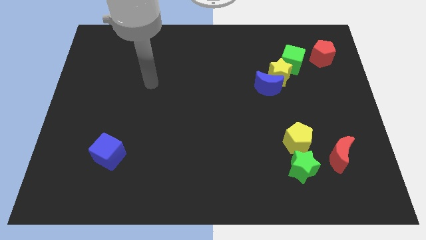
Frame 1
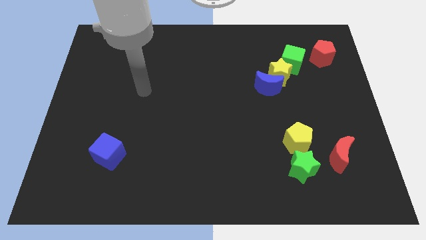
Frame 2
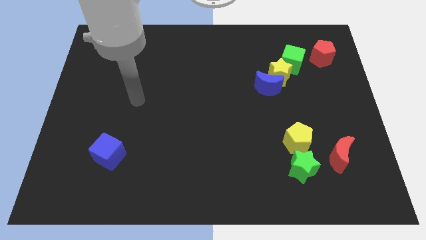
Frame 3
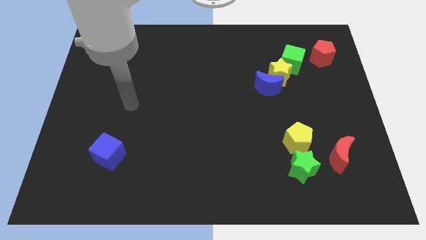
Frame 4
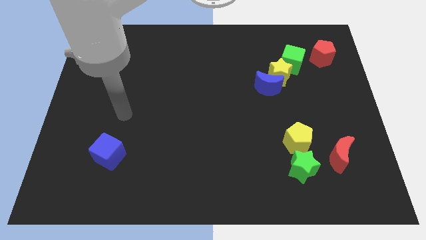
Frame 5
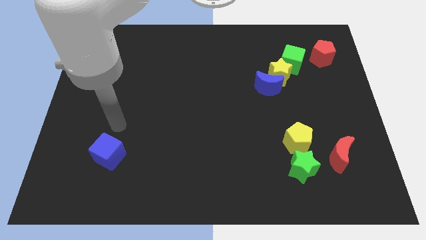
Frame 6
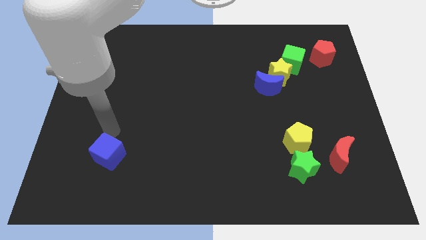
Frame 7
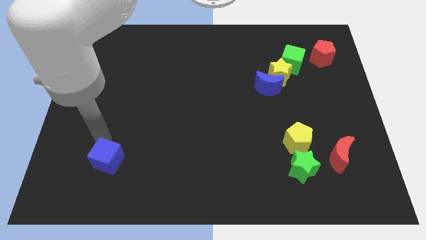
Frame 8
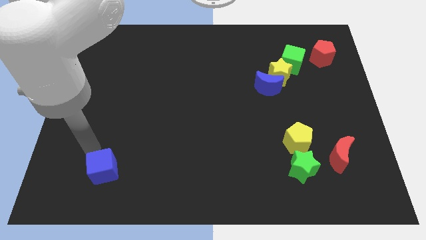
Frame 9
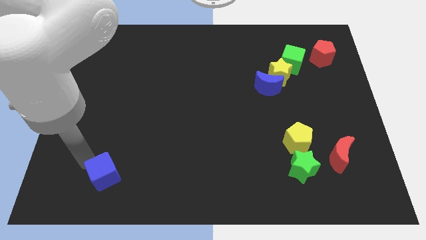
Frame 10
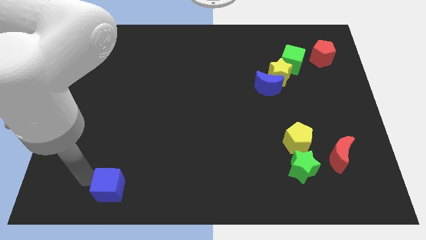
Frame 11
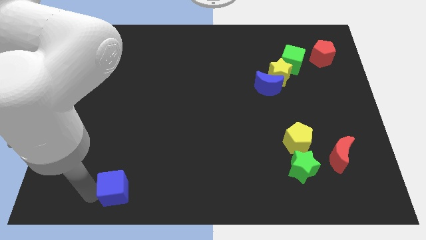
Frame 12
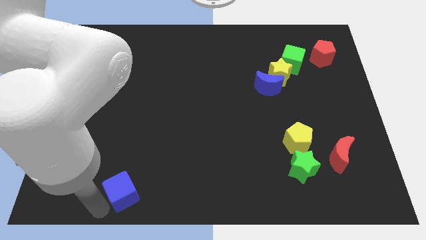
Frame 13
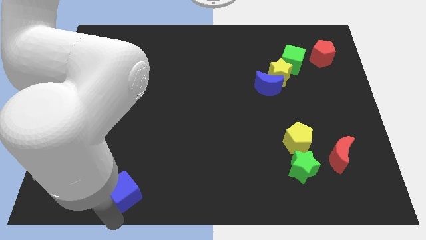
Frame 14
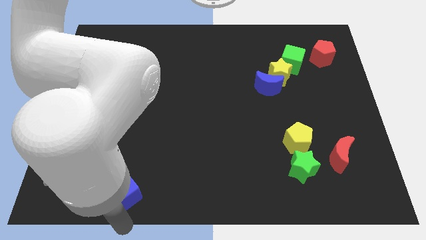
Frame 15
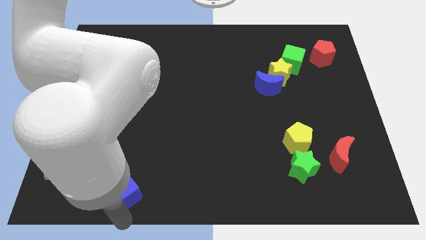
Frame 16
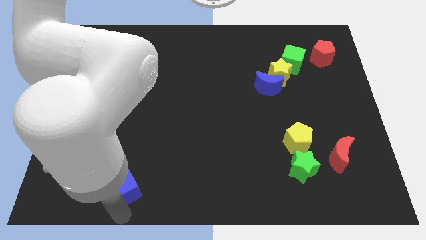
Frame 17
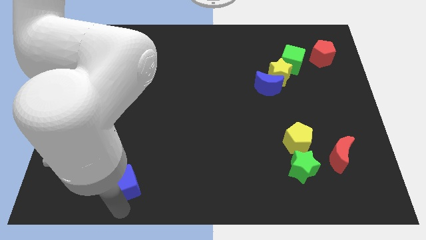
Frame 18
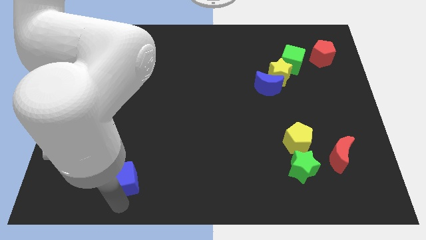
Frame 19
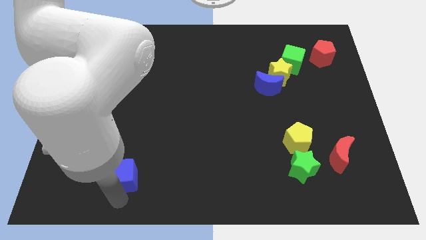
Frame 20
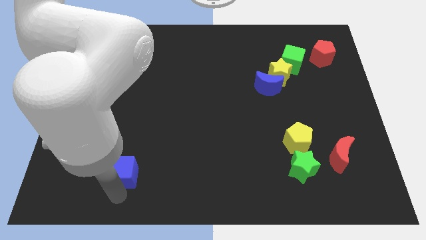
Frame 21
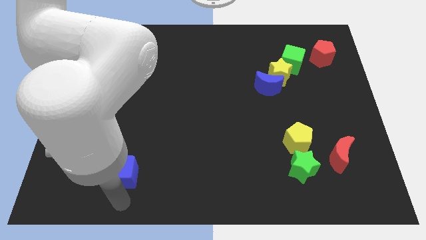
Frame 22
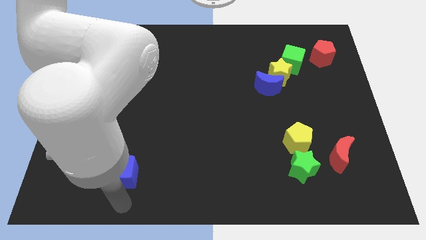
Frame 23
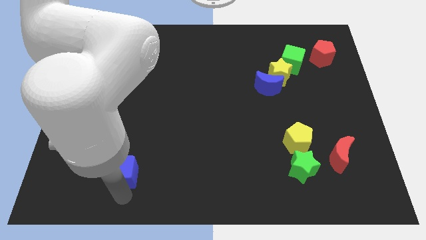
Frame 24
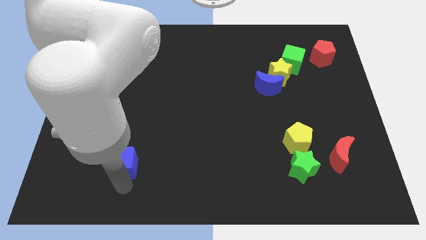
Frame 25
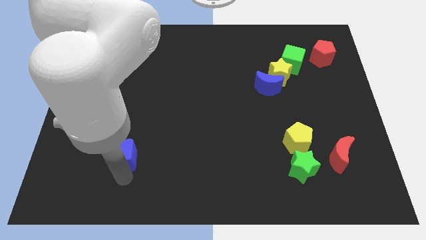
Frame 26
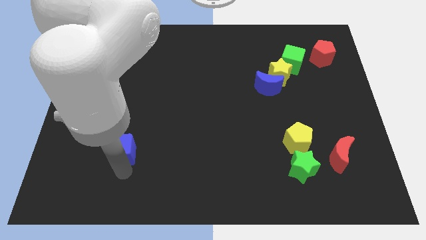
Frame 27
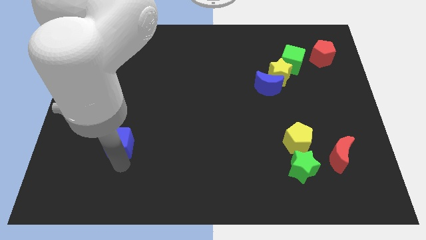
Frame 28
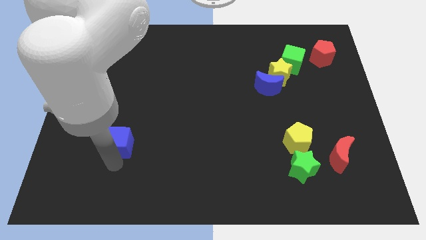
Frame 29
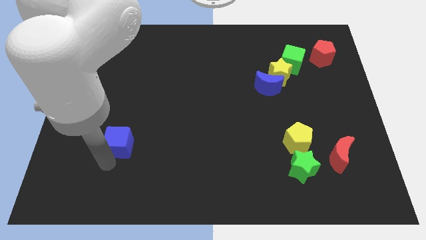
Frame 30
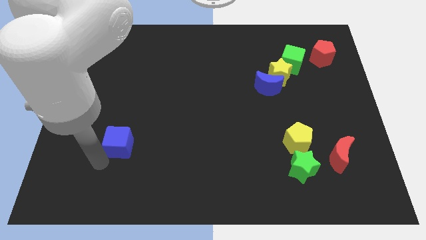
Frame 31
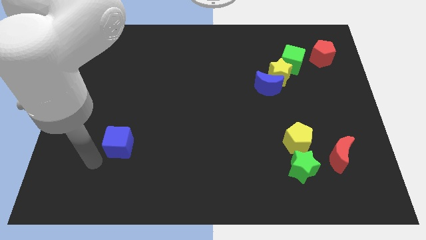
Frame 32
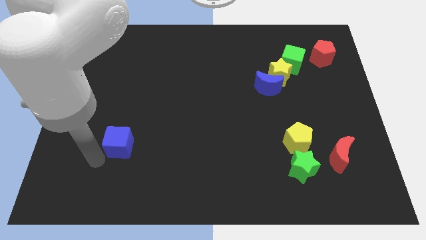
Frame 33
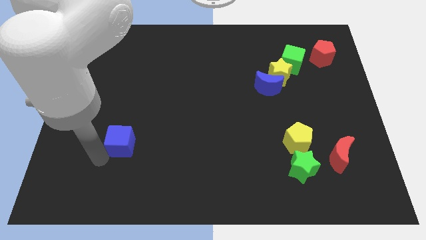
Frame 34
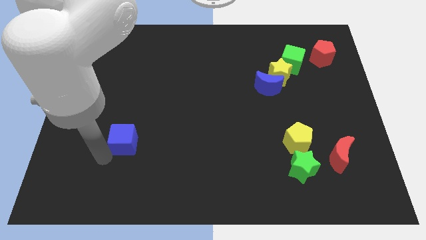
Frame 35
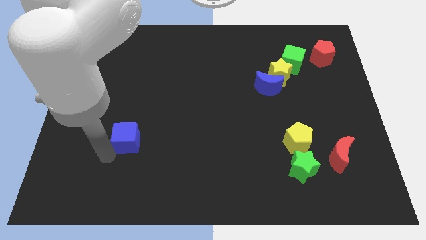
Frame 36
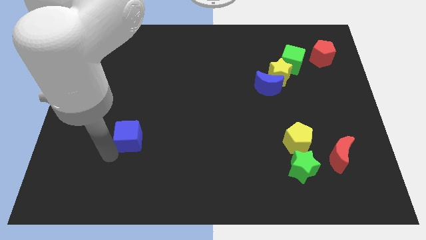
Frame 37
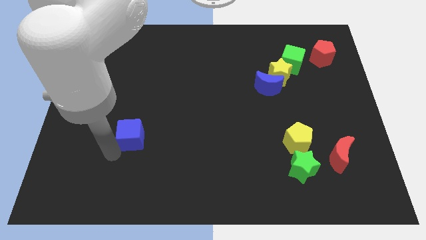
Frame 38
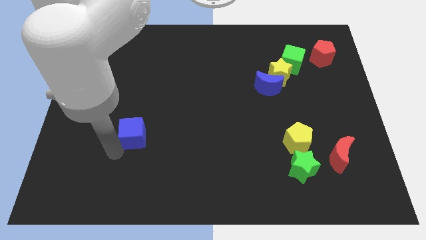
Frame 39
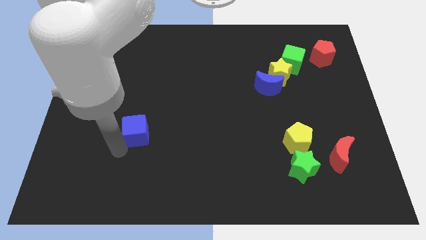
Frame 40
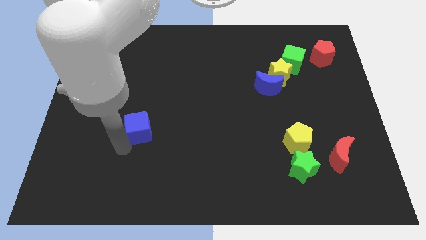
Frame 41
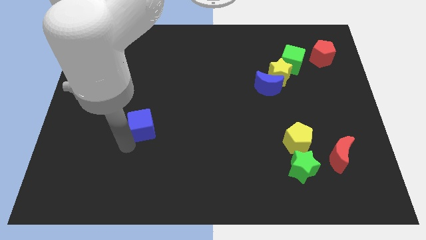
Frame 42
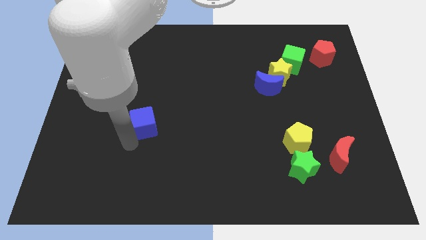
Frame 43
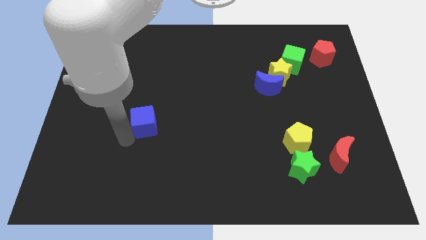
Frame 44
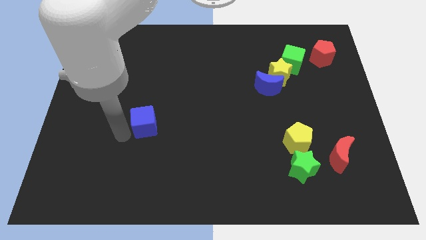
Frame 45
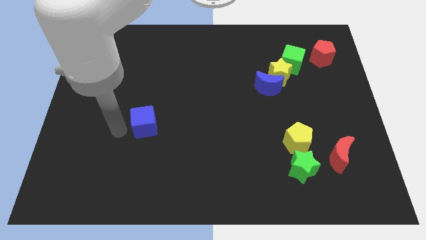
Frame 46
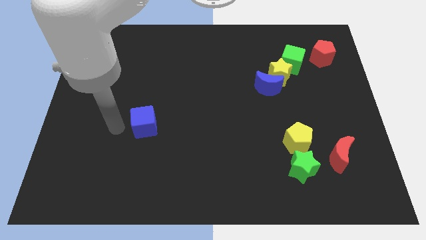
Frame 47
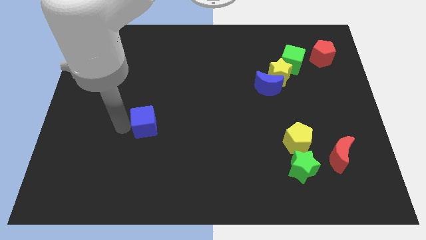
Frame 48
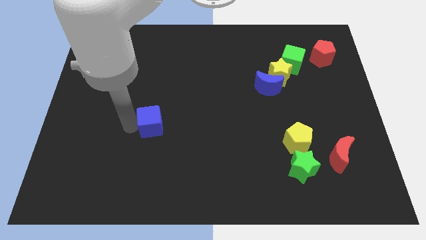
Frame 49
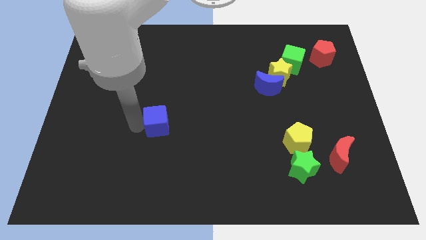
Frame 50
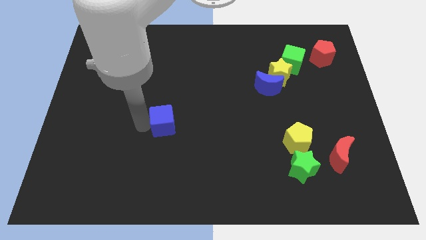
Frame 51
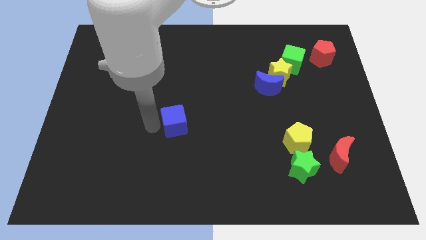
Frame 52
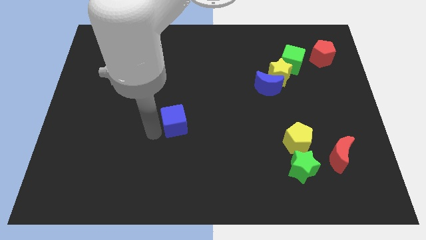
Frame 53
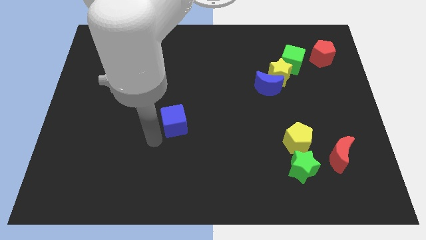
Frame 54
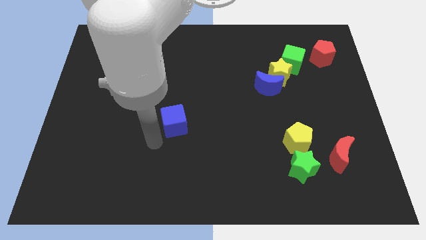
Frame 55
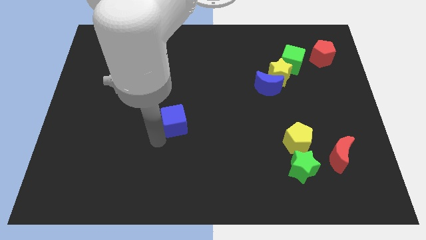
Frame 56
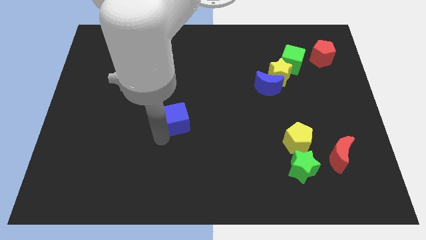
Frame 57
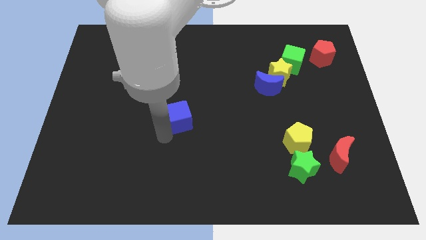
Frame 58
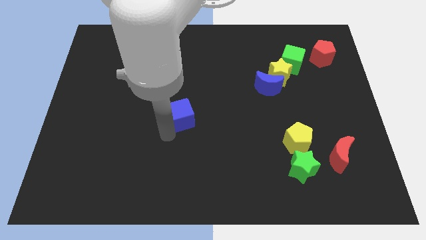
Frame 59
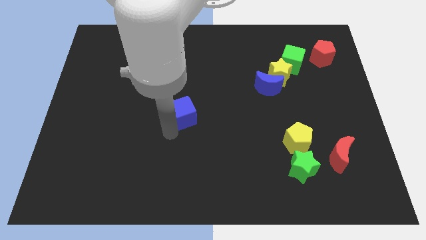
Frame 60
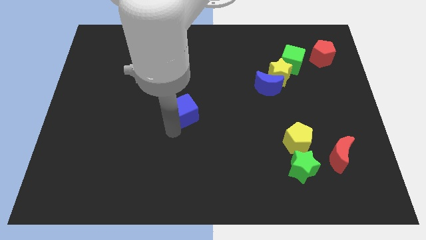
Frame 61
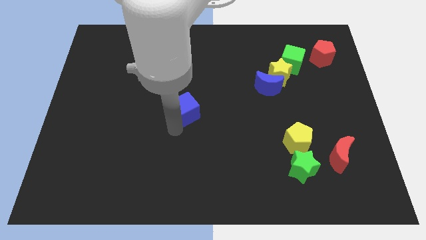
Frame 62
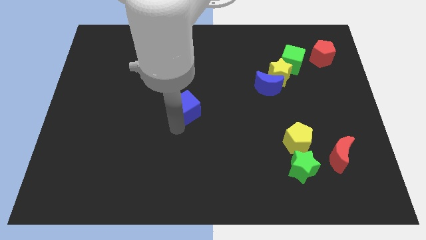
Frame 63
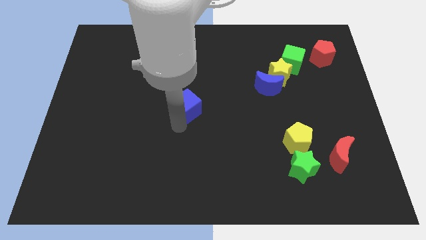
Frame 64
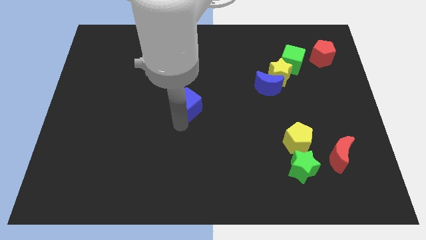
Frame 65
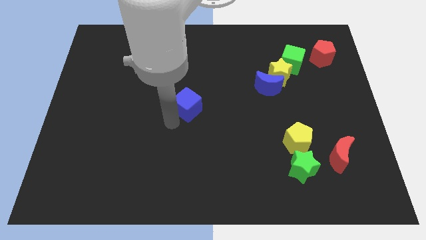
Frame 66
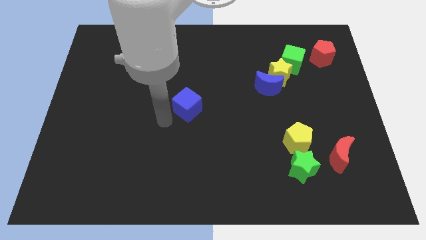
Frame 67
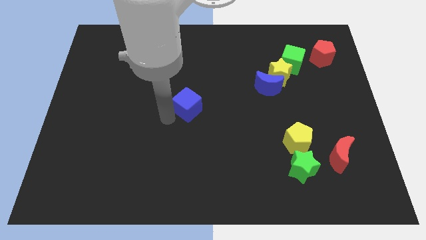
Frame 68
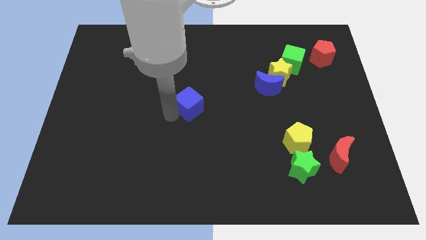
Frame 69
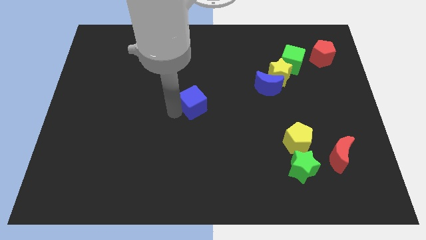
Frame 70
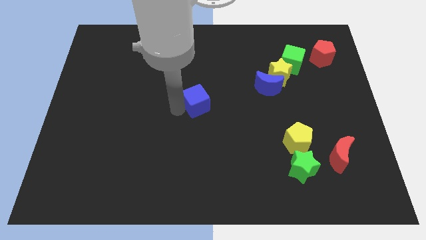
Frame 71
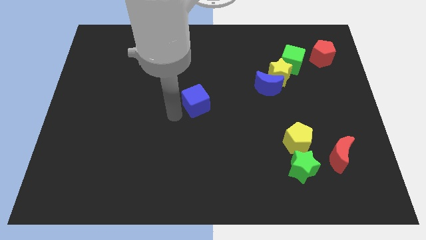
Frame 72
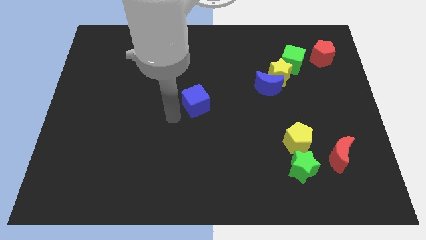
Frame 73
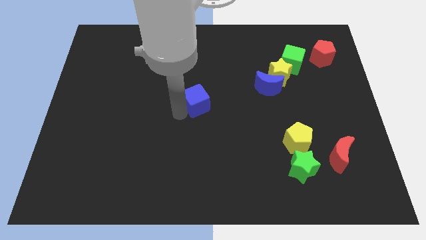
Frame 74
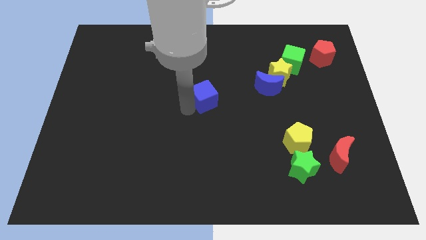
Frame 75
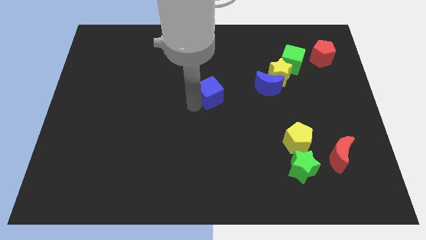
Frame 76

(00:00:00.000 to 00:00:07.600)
slide the blue cube to the left of the blue moon
